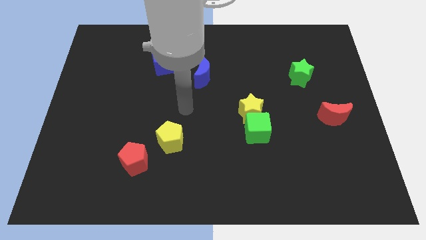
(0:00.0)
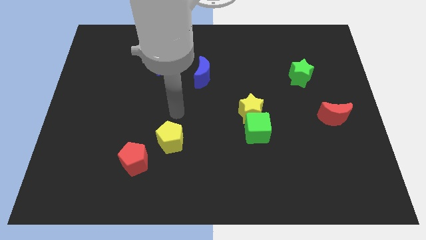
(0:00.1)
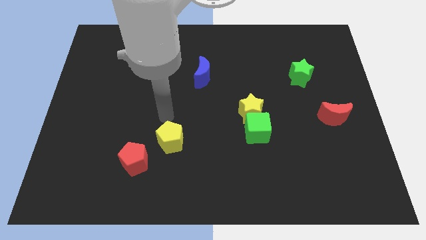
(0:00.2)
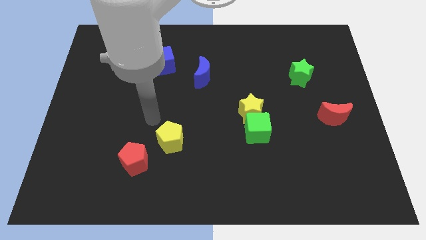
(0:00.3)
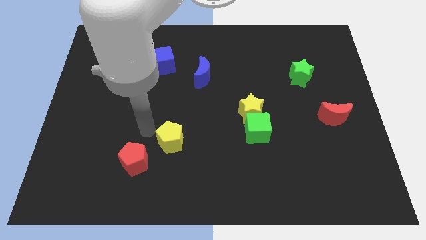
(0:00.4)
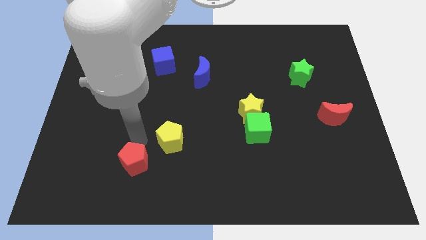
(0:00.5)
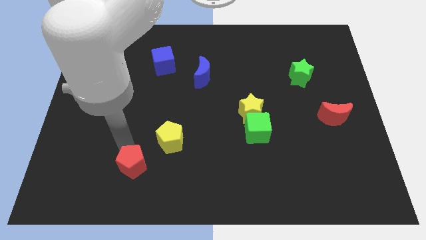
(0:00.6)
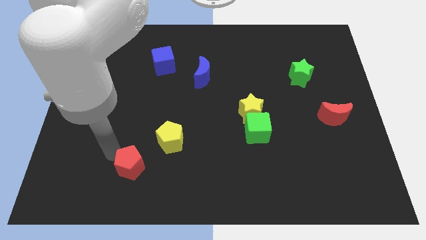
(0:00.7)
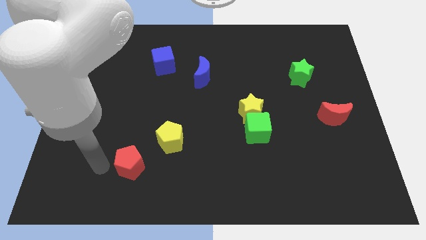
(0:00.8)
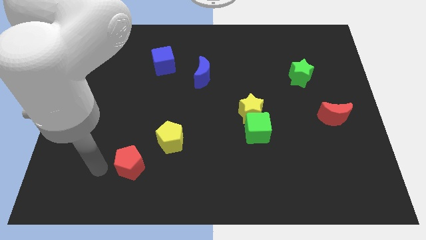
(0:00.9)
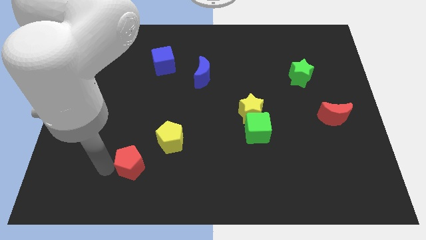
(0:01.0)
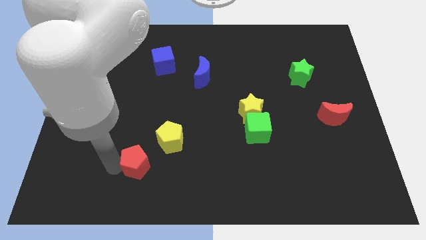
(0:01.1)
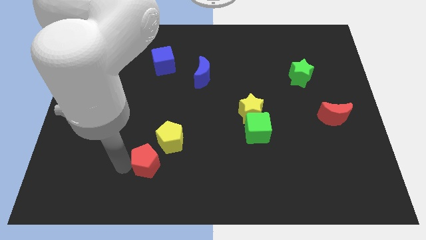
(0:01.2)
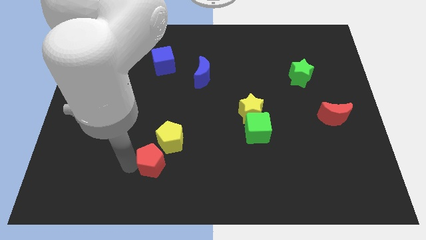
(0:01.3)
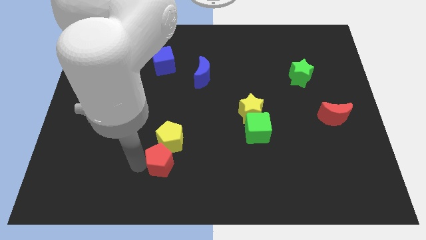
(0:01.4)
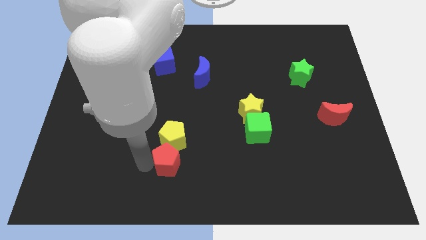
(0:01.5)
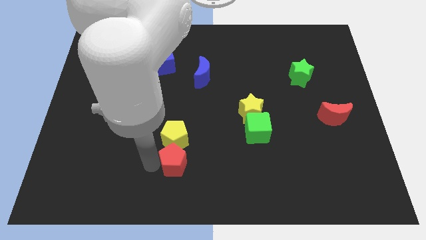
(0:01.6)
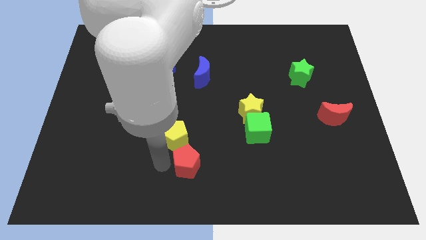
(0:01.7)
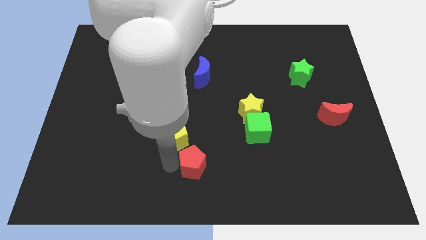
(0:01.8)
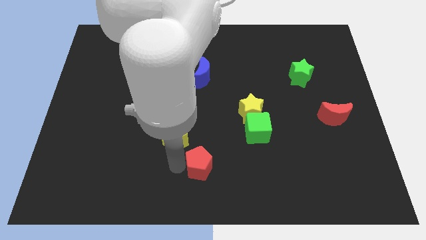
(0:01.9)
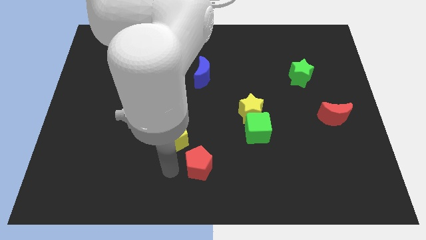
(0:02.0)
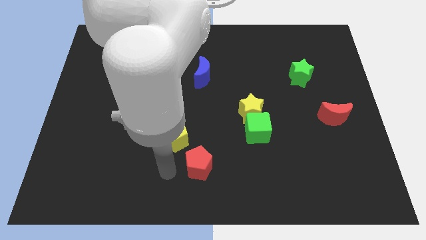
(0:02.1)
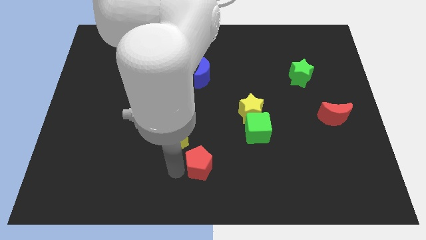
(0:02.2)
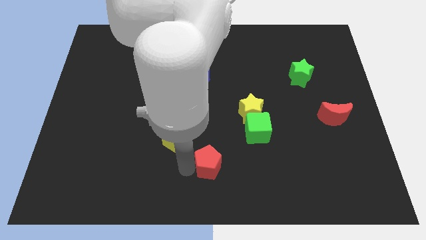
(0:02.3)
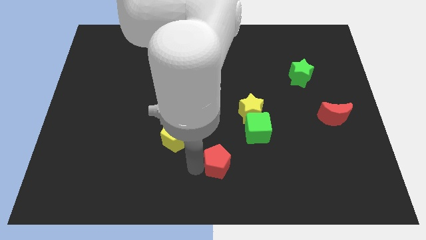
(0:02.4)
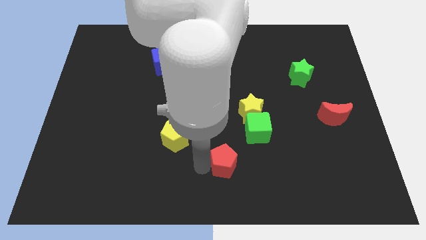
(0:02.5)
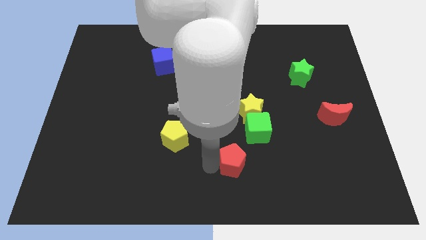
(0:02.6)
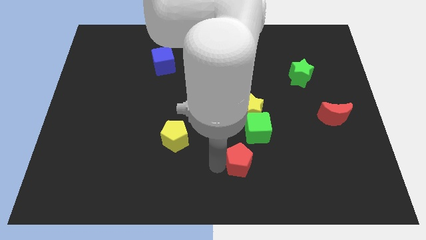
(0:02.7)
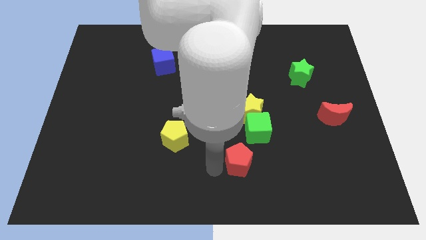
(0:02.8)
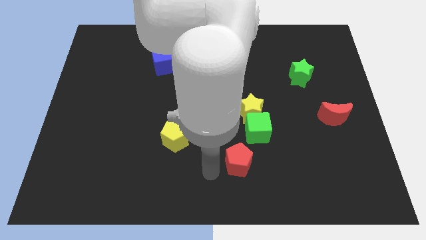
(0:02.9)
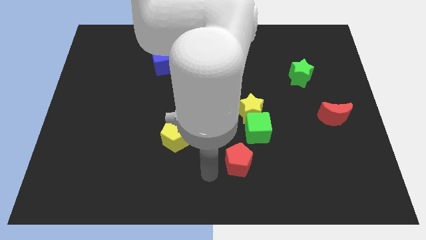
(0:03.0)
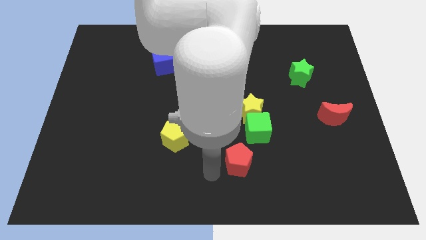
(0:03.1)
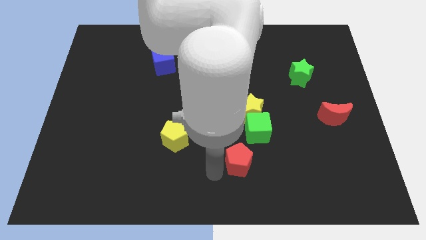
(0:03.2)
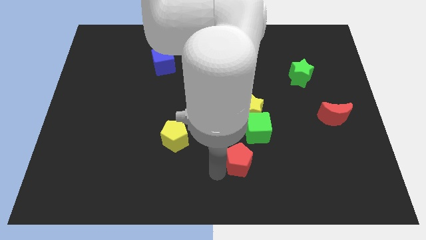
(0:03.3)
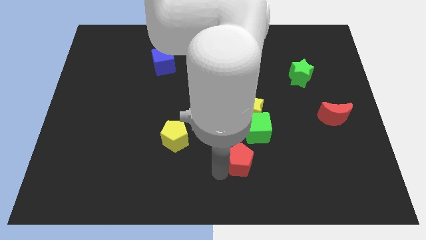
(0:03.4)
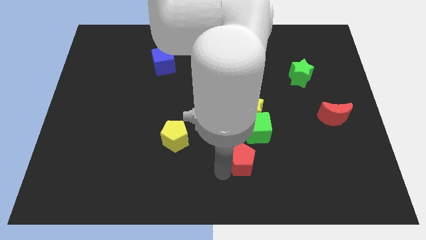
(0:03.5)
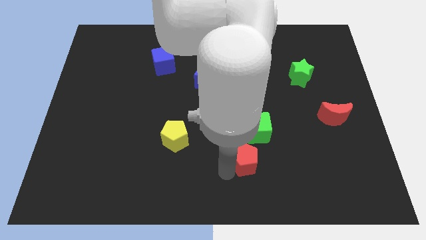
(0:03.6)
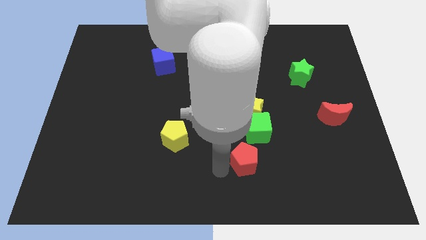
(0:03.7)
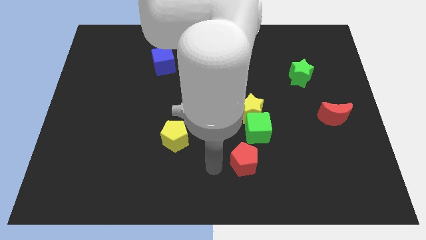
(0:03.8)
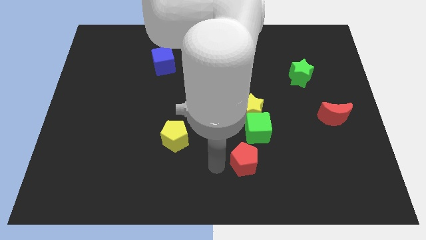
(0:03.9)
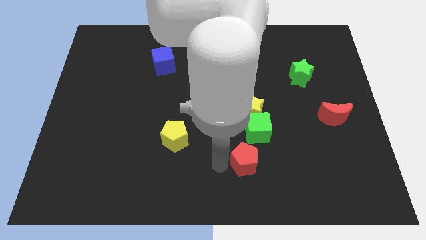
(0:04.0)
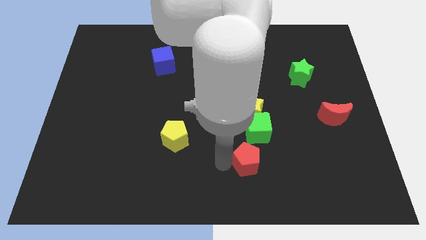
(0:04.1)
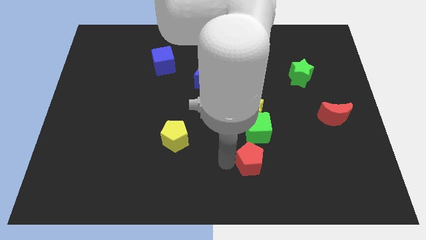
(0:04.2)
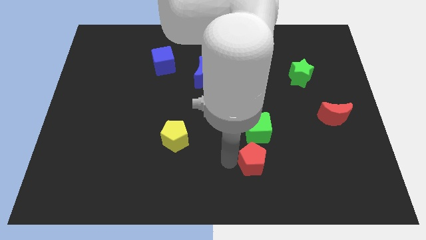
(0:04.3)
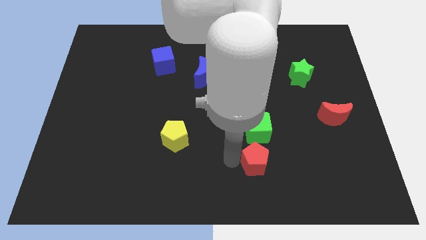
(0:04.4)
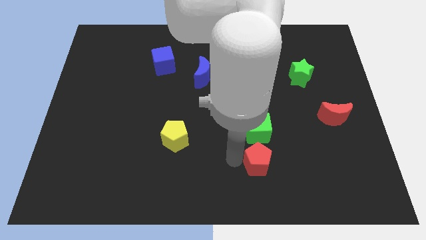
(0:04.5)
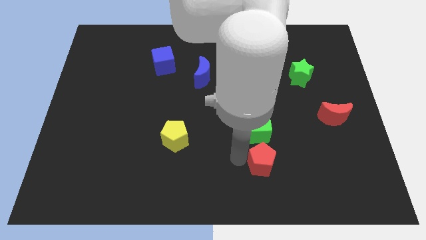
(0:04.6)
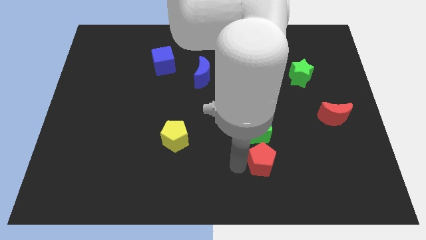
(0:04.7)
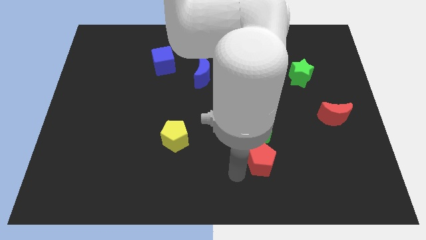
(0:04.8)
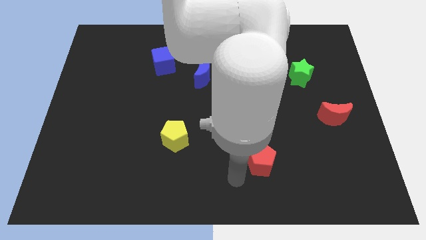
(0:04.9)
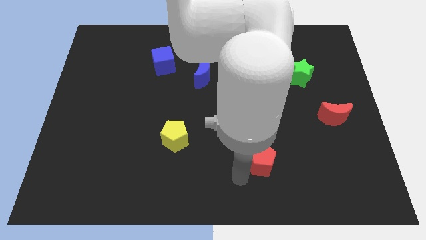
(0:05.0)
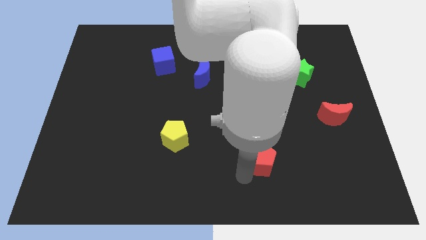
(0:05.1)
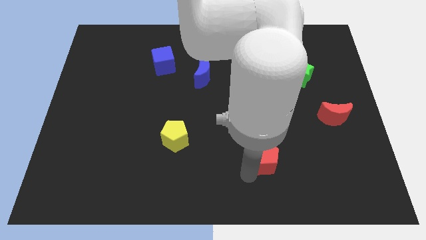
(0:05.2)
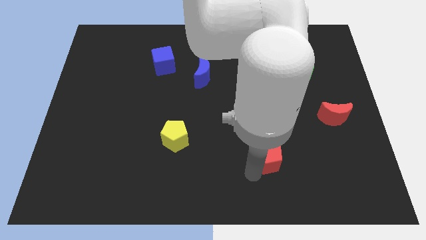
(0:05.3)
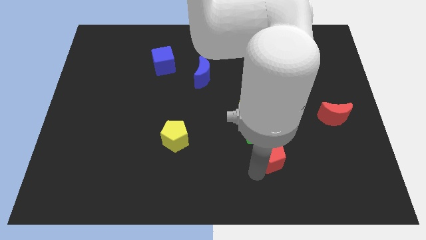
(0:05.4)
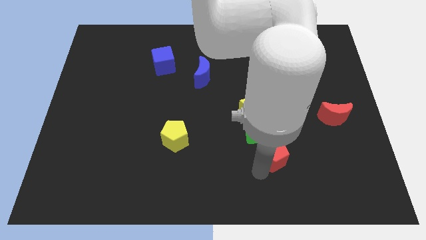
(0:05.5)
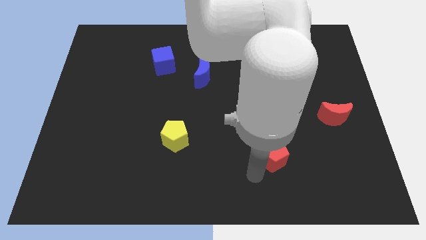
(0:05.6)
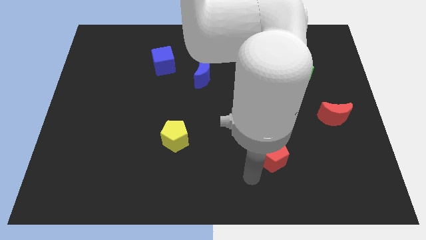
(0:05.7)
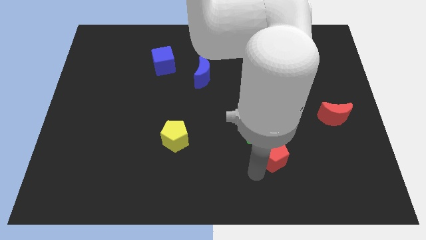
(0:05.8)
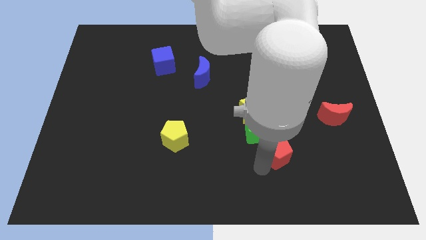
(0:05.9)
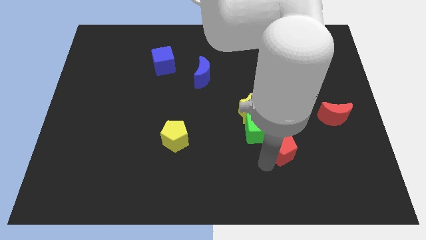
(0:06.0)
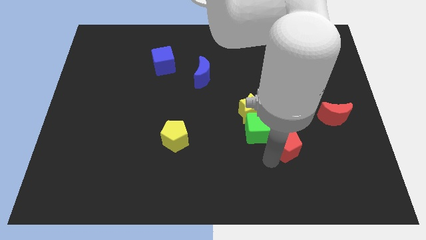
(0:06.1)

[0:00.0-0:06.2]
put the red pentagon to the right side of the green cube

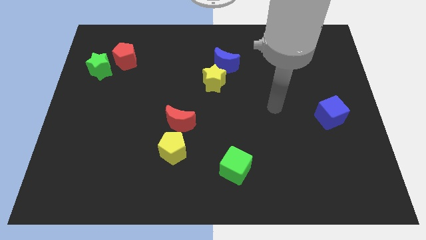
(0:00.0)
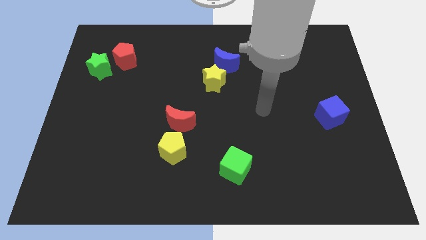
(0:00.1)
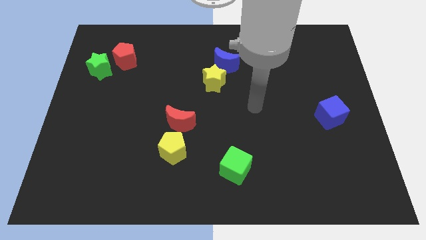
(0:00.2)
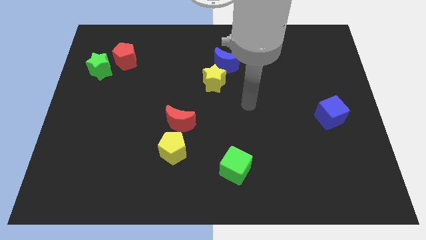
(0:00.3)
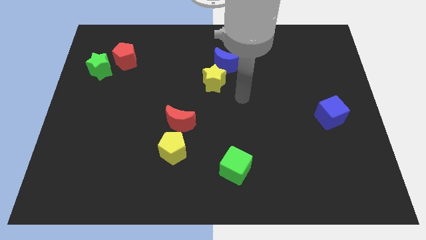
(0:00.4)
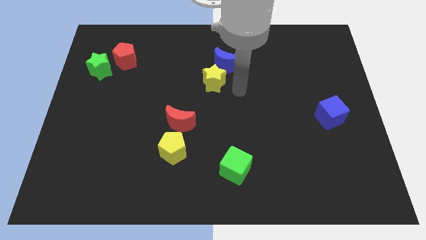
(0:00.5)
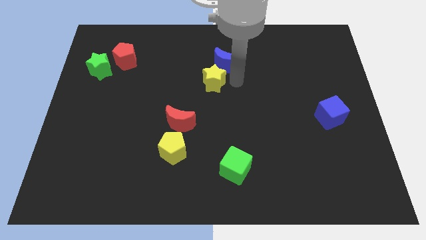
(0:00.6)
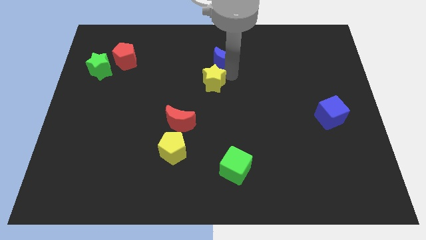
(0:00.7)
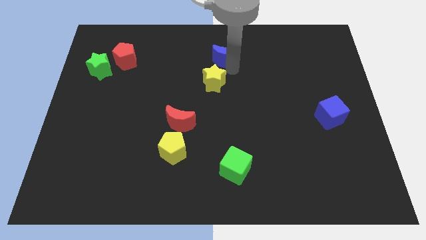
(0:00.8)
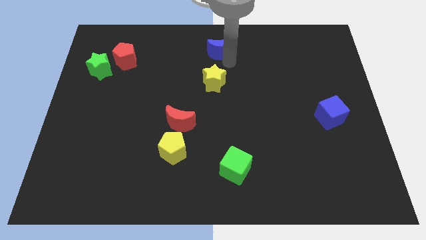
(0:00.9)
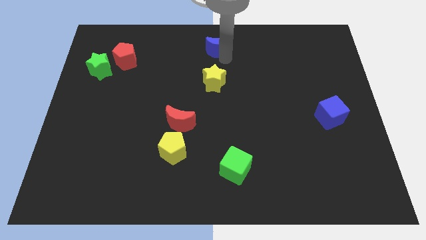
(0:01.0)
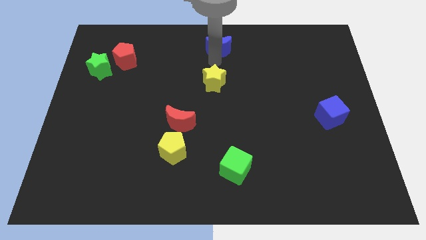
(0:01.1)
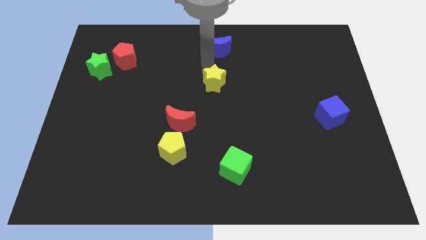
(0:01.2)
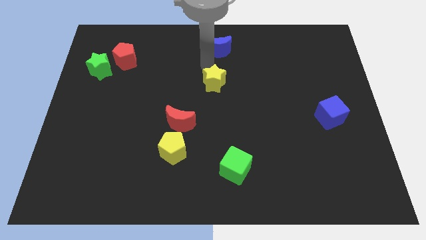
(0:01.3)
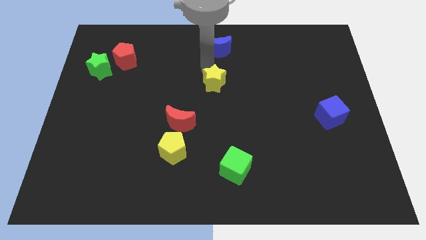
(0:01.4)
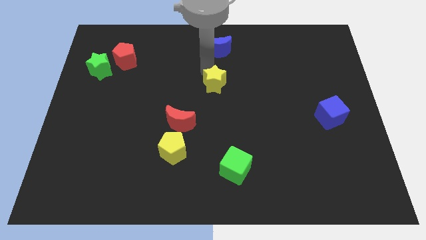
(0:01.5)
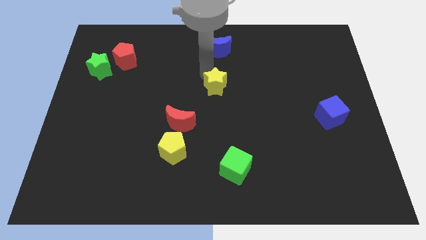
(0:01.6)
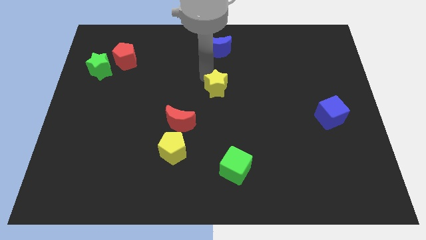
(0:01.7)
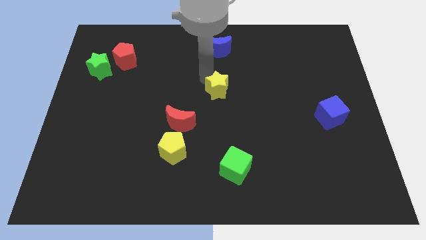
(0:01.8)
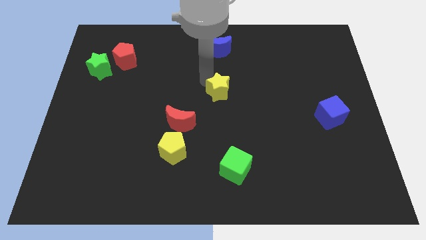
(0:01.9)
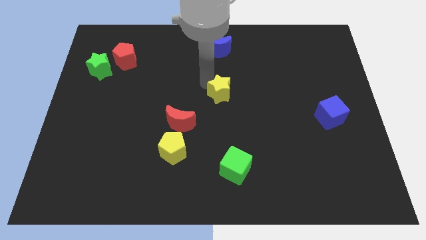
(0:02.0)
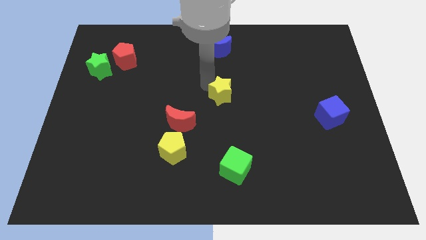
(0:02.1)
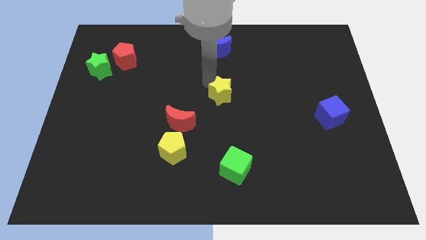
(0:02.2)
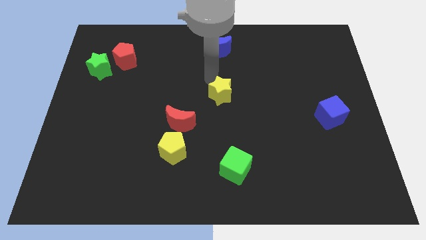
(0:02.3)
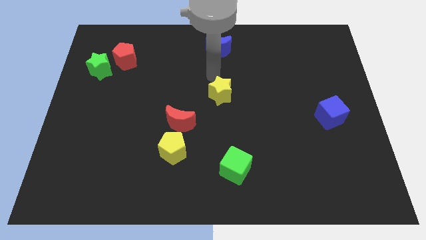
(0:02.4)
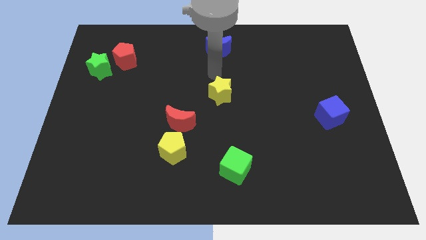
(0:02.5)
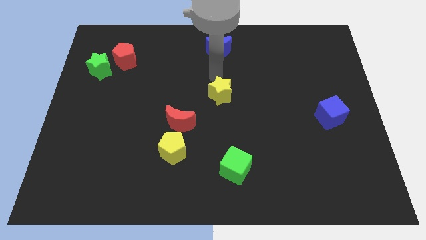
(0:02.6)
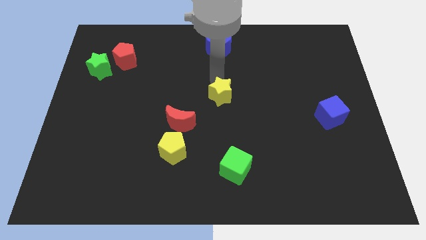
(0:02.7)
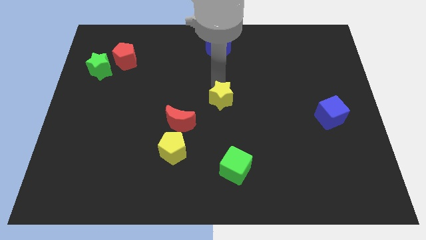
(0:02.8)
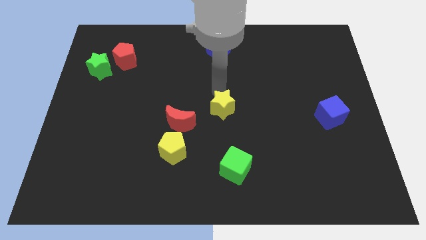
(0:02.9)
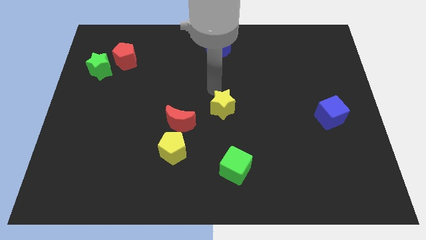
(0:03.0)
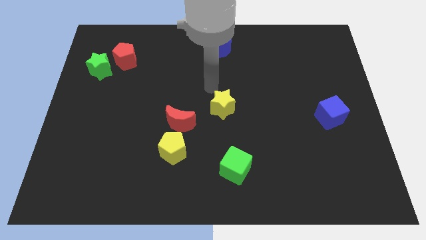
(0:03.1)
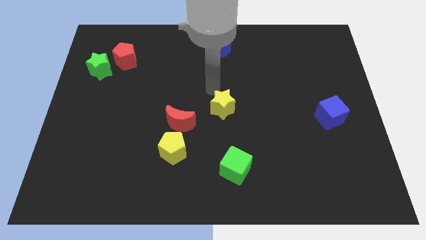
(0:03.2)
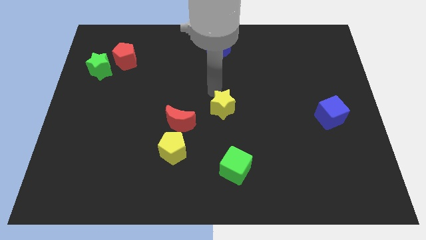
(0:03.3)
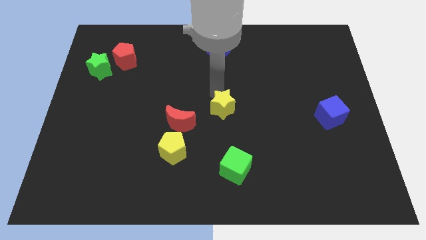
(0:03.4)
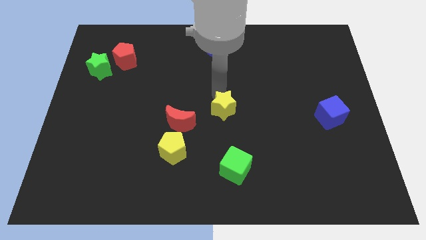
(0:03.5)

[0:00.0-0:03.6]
move the yellow star to the top of the green cube
